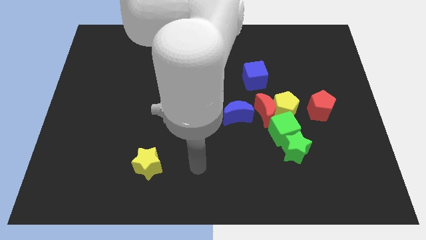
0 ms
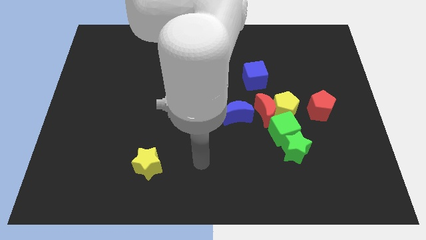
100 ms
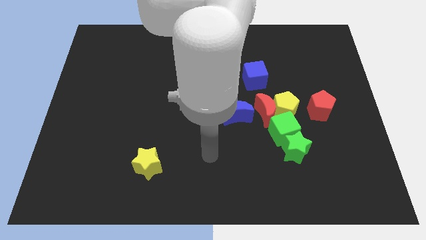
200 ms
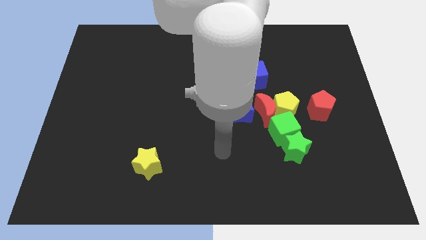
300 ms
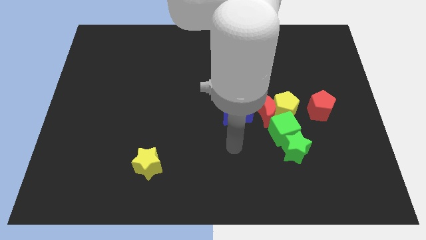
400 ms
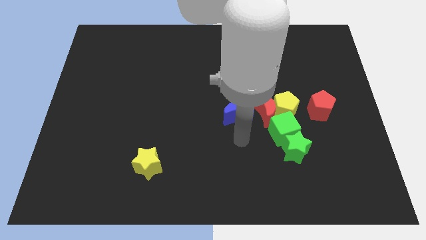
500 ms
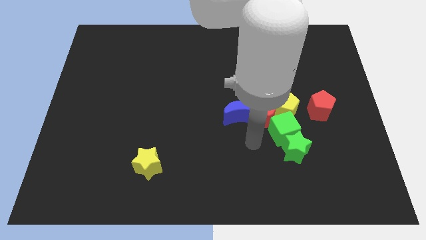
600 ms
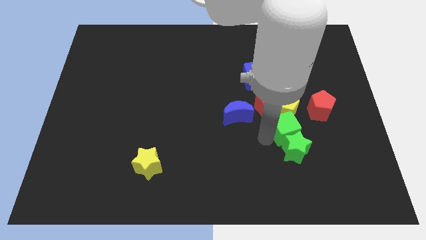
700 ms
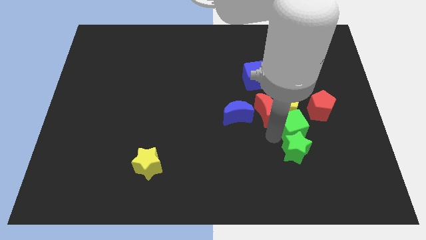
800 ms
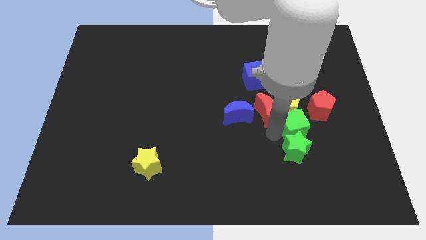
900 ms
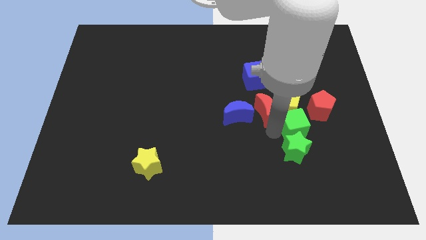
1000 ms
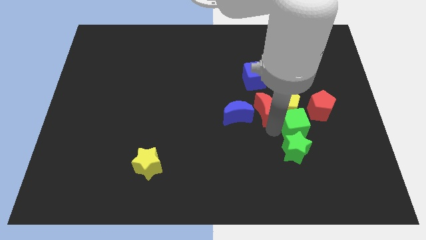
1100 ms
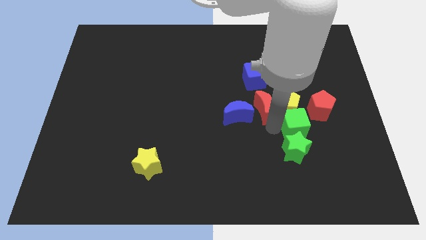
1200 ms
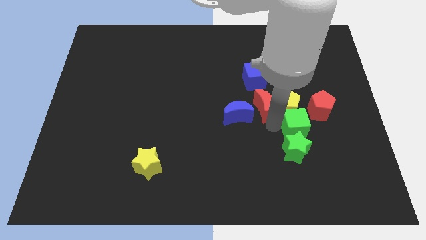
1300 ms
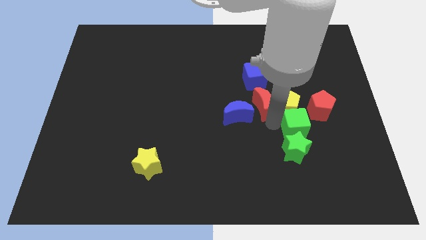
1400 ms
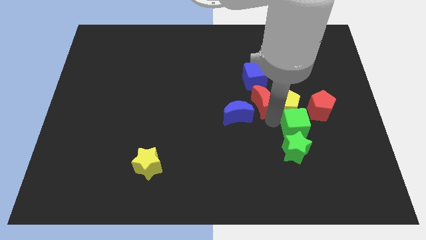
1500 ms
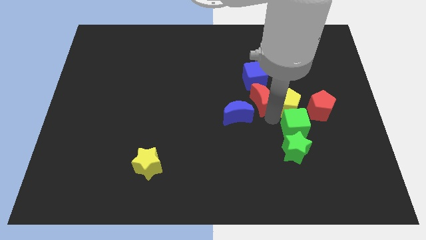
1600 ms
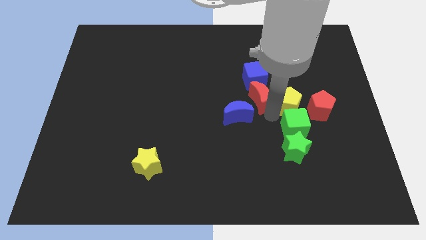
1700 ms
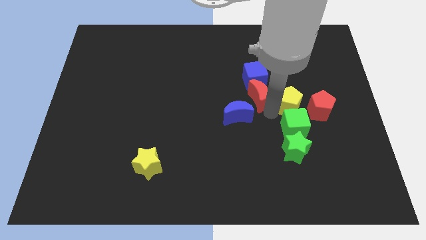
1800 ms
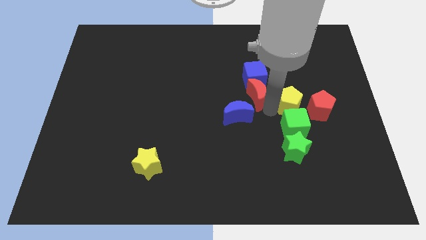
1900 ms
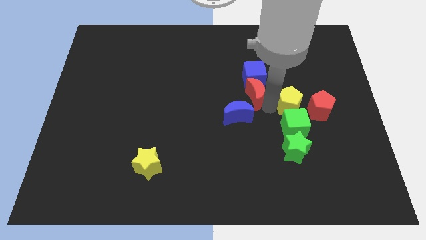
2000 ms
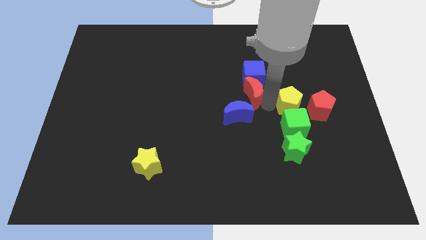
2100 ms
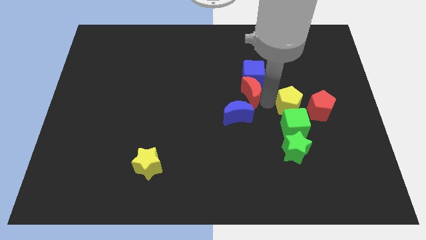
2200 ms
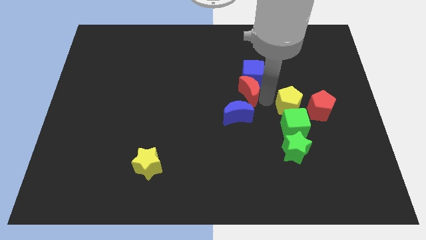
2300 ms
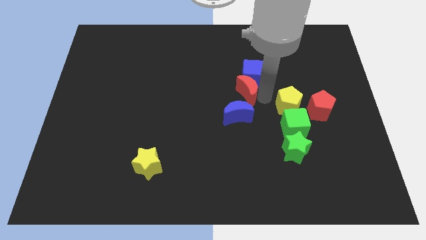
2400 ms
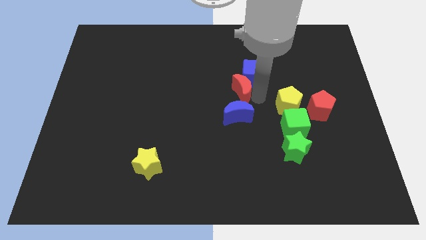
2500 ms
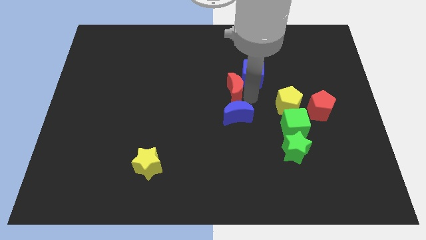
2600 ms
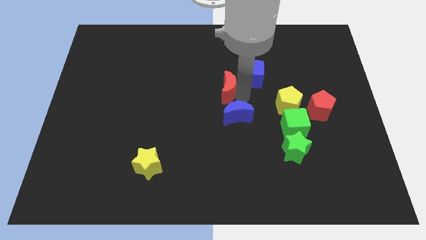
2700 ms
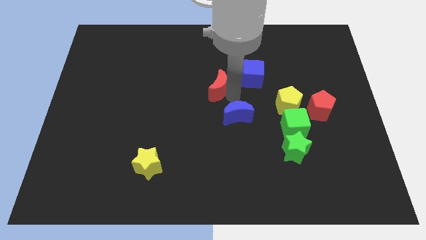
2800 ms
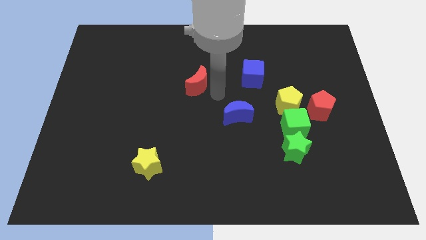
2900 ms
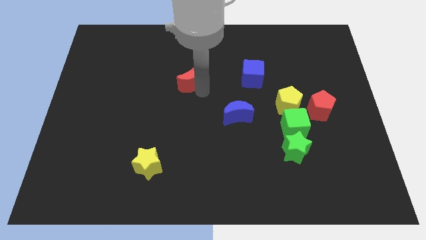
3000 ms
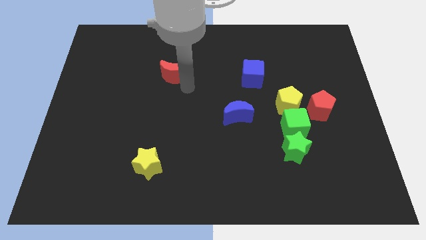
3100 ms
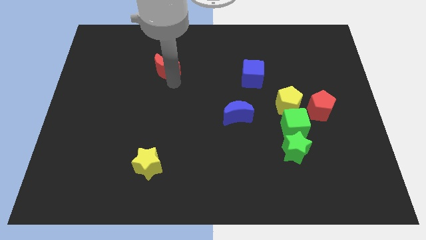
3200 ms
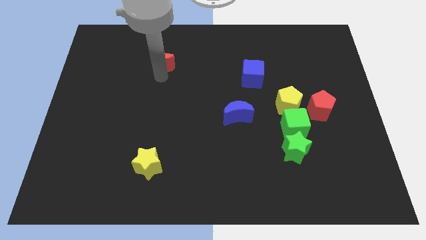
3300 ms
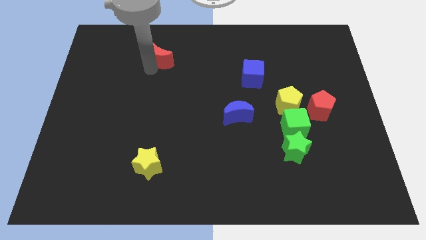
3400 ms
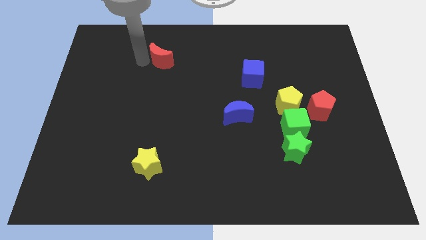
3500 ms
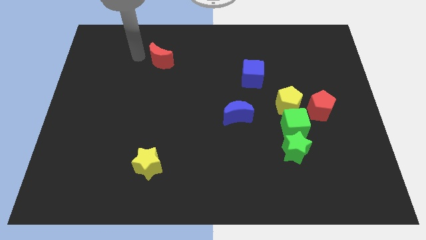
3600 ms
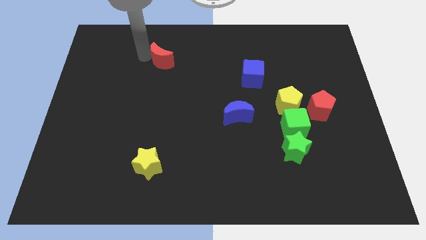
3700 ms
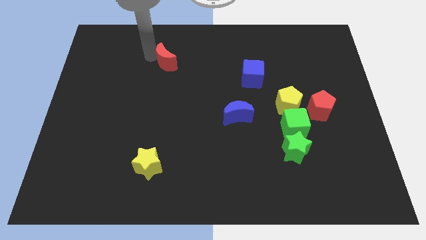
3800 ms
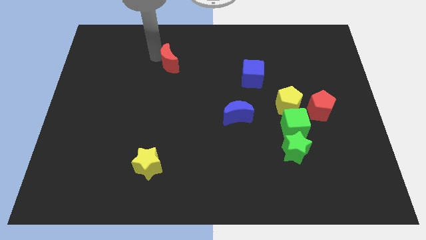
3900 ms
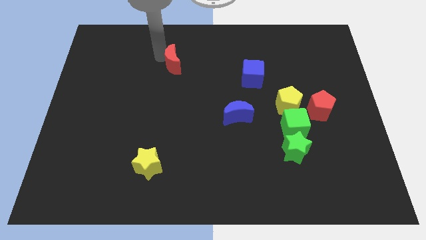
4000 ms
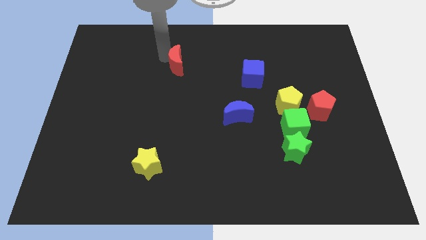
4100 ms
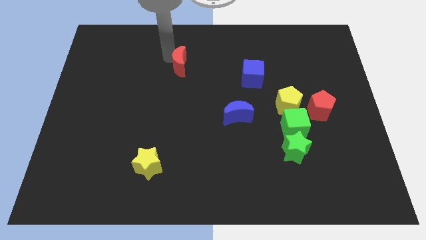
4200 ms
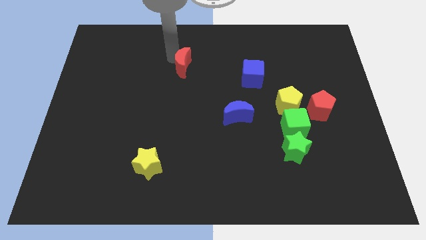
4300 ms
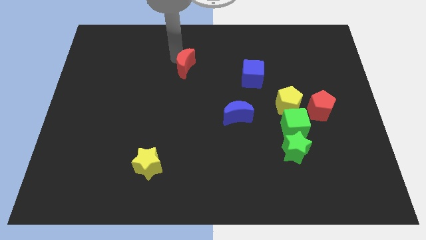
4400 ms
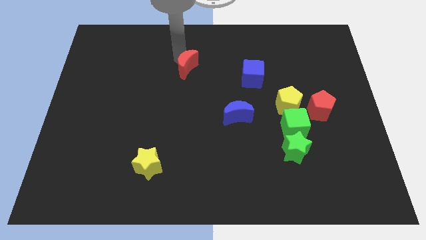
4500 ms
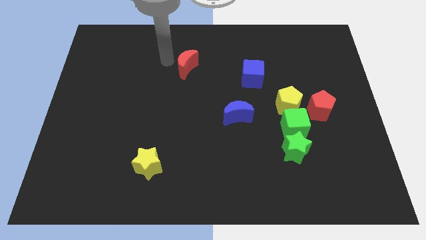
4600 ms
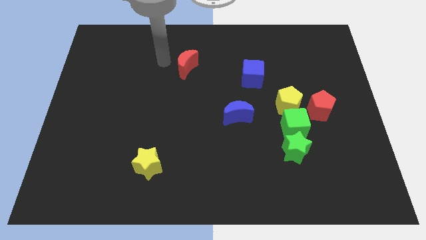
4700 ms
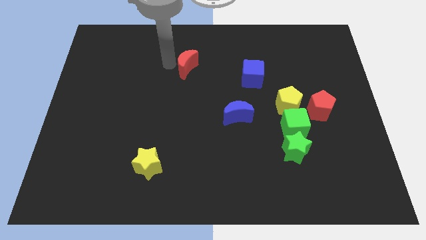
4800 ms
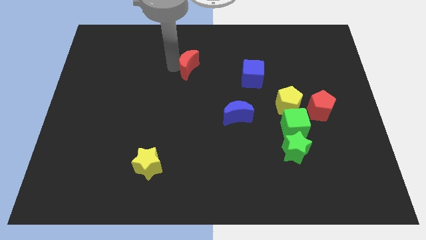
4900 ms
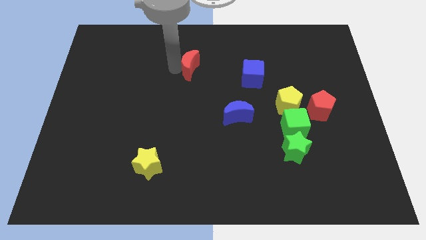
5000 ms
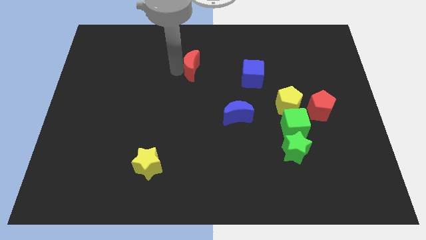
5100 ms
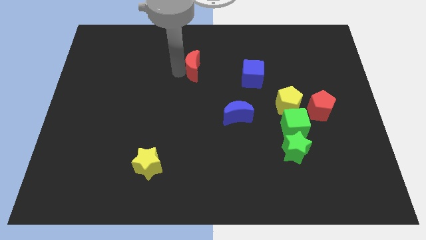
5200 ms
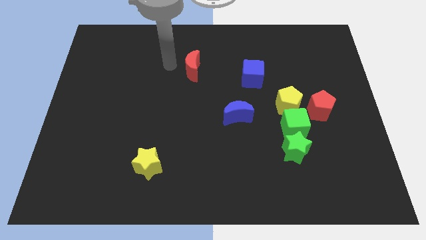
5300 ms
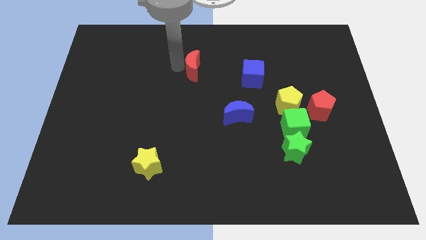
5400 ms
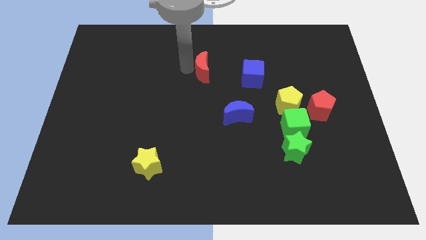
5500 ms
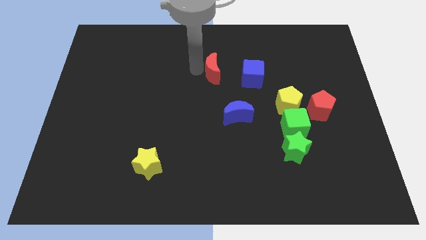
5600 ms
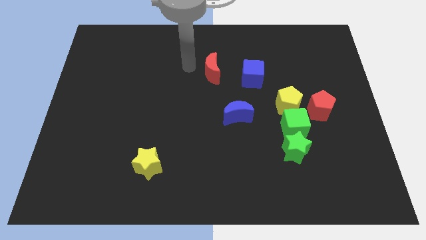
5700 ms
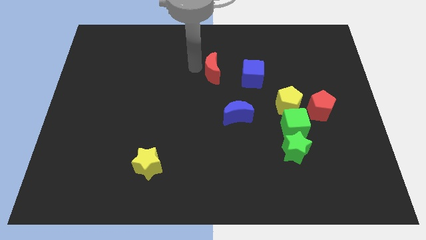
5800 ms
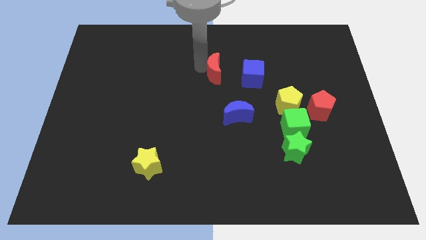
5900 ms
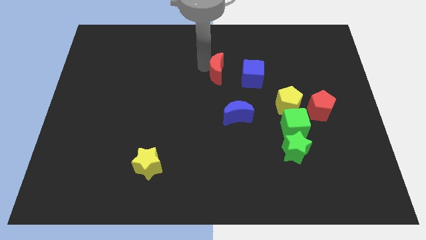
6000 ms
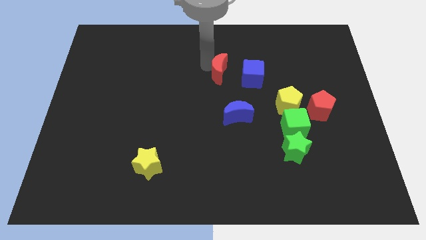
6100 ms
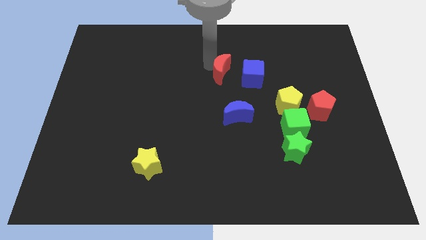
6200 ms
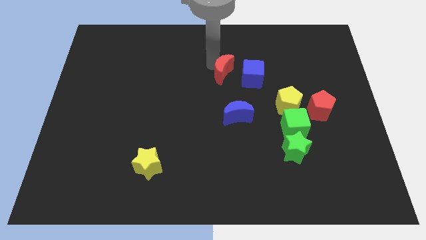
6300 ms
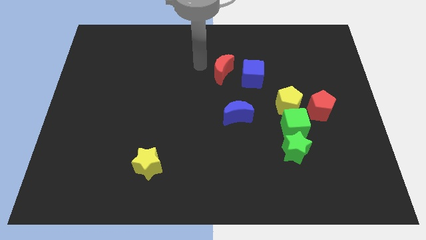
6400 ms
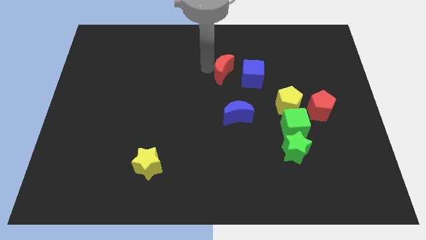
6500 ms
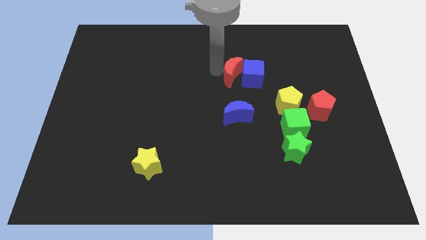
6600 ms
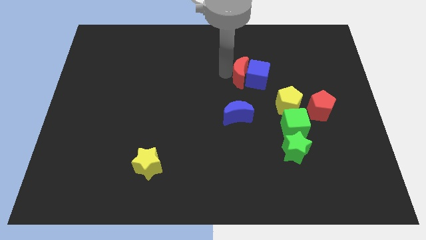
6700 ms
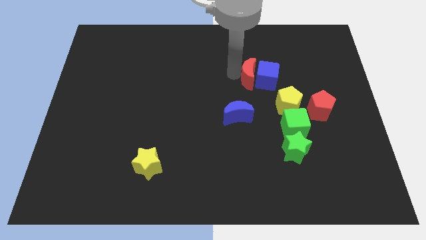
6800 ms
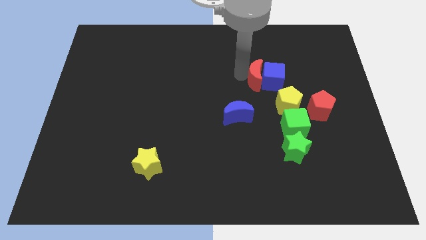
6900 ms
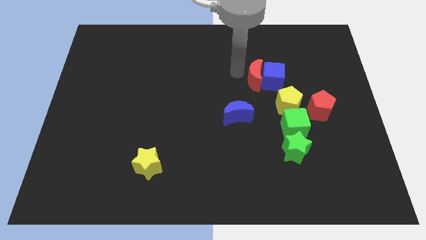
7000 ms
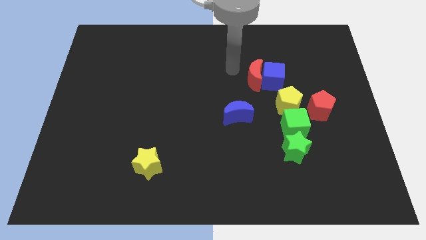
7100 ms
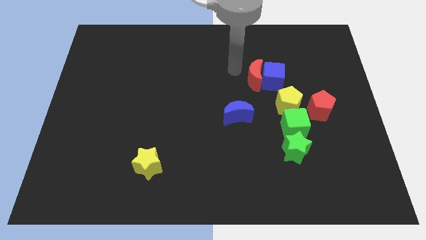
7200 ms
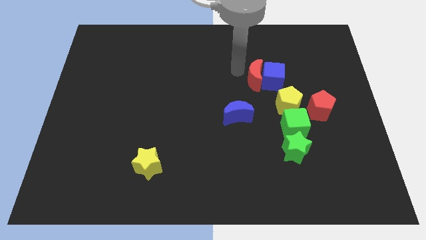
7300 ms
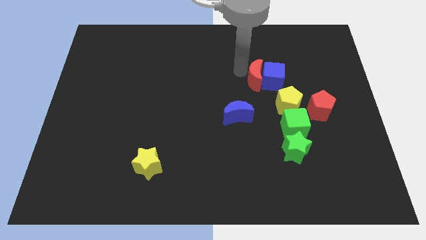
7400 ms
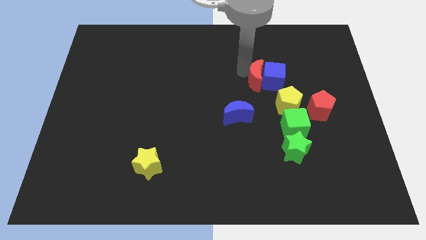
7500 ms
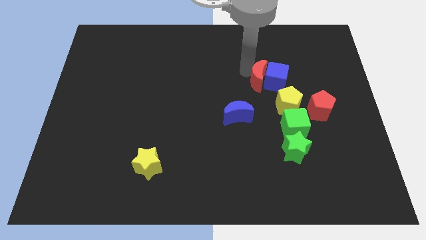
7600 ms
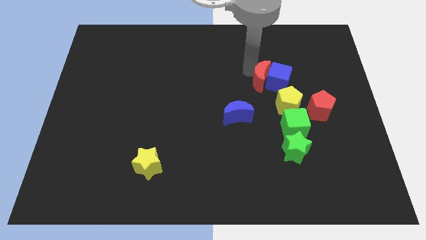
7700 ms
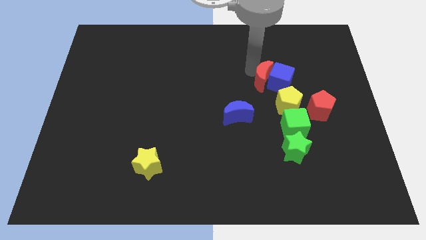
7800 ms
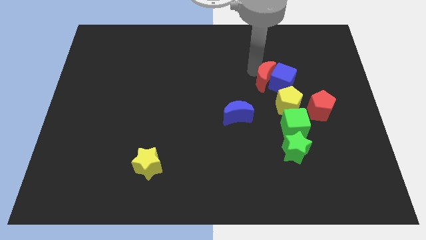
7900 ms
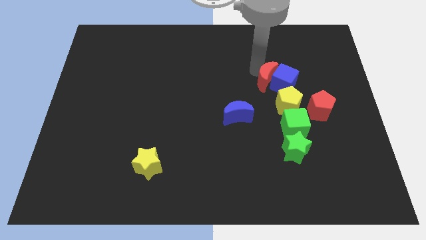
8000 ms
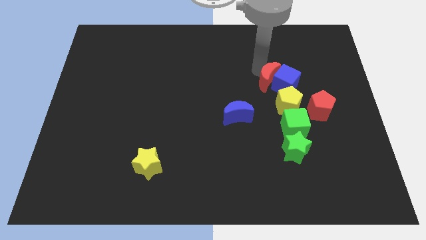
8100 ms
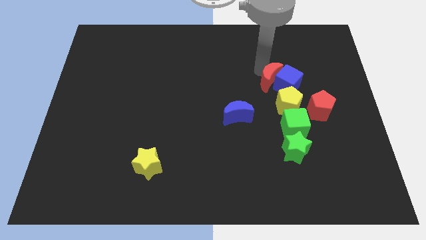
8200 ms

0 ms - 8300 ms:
slightly move the red moon up and right
